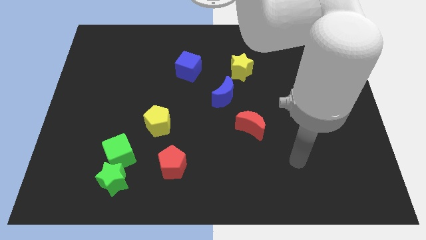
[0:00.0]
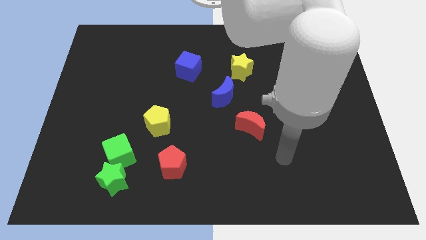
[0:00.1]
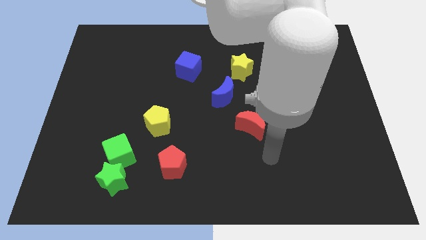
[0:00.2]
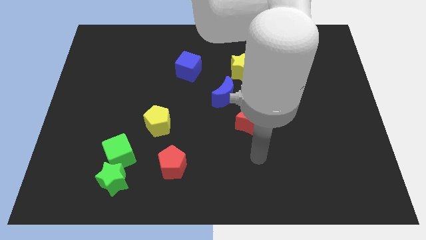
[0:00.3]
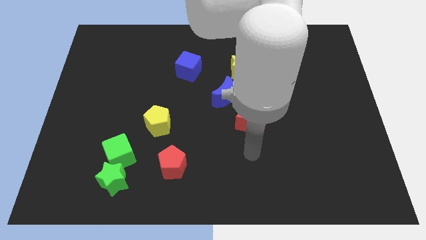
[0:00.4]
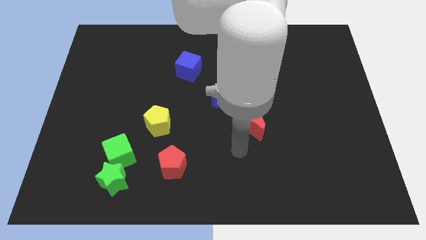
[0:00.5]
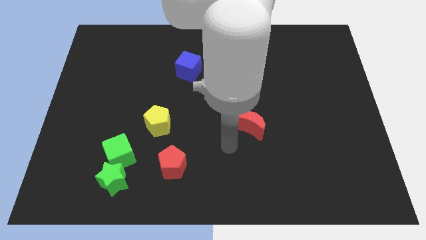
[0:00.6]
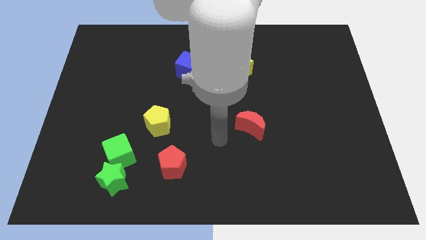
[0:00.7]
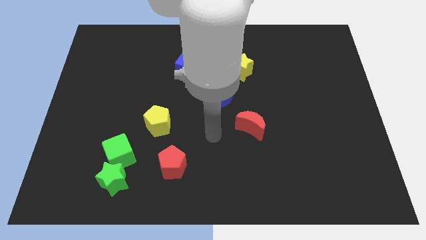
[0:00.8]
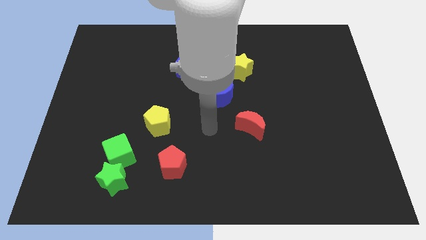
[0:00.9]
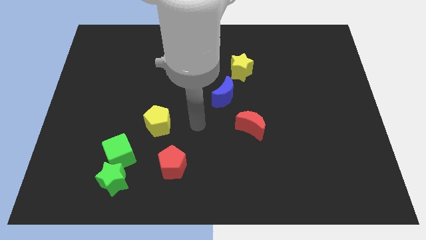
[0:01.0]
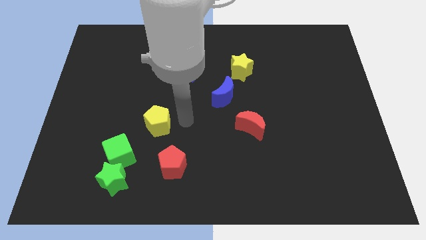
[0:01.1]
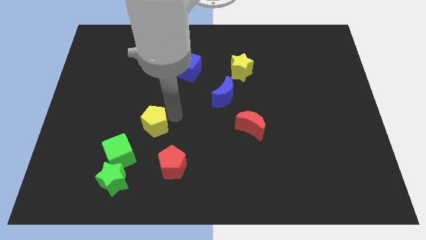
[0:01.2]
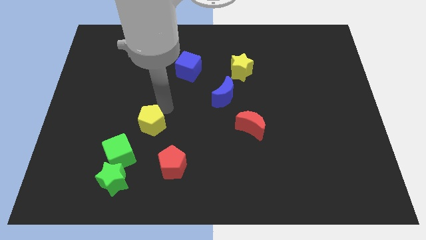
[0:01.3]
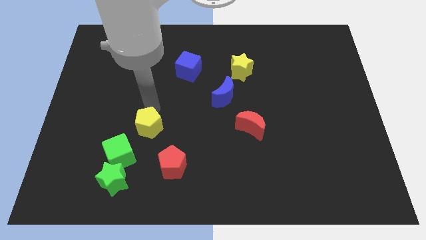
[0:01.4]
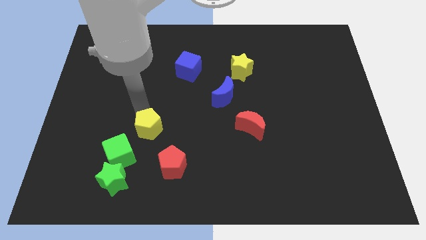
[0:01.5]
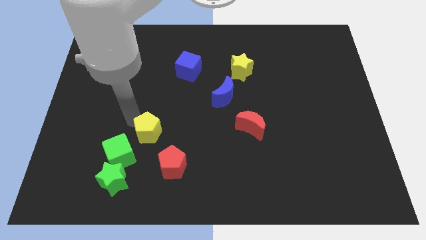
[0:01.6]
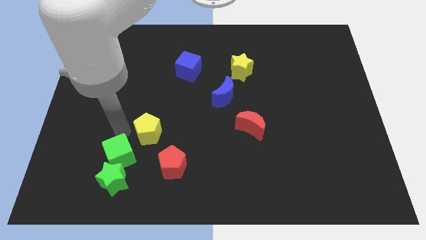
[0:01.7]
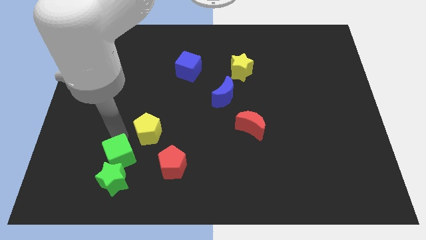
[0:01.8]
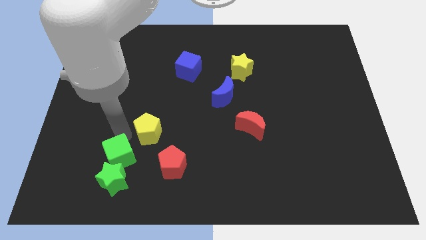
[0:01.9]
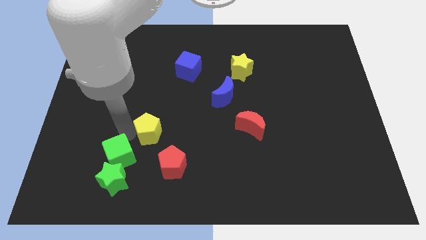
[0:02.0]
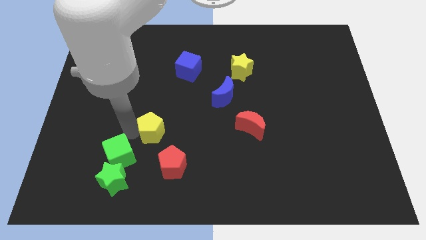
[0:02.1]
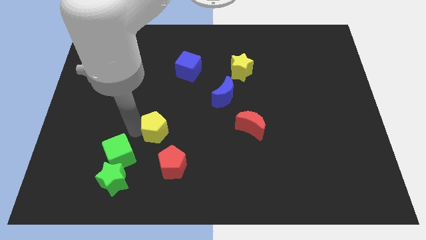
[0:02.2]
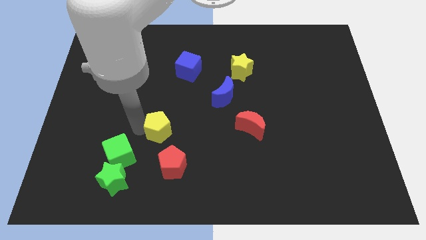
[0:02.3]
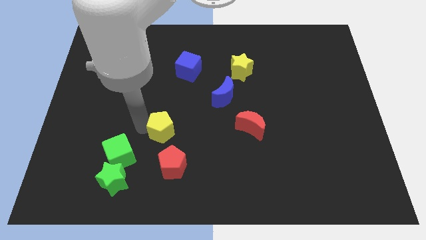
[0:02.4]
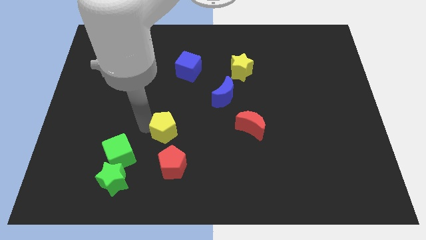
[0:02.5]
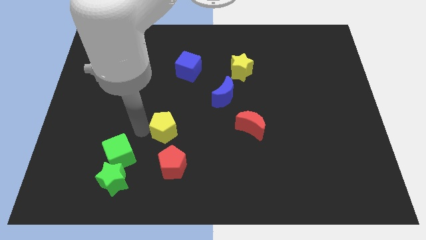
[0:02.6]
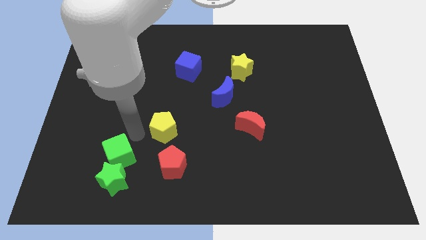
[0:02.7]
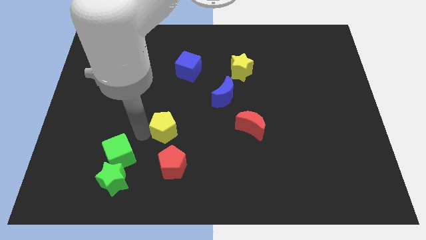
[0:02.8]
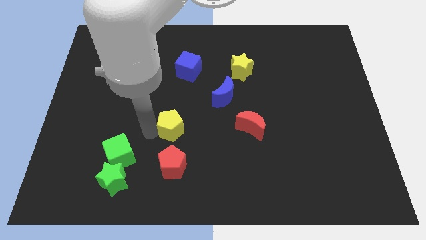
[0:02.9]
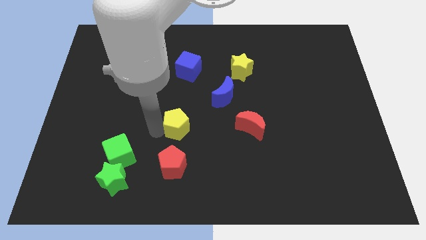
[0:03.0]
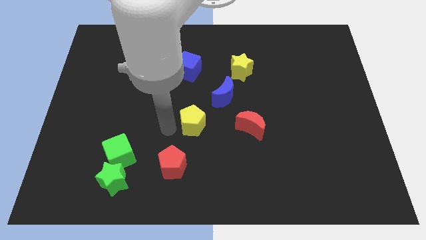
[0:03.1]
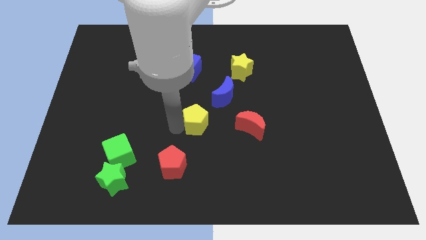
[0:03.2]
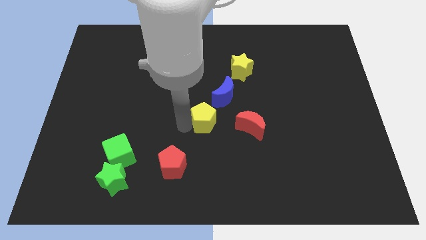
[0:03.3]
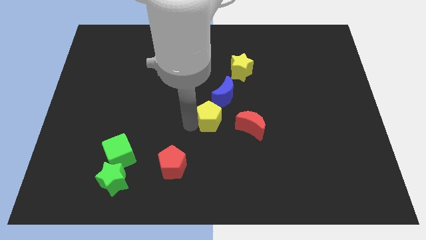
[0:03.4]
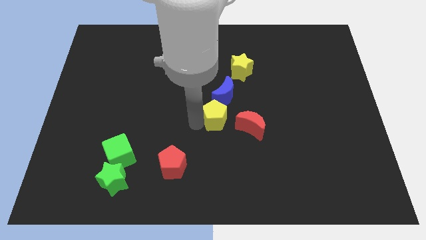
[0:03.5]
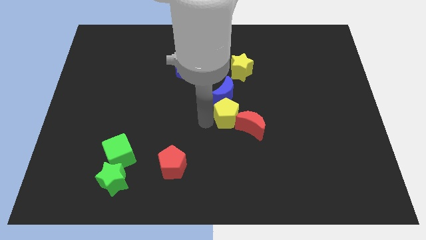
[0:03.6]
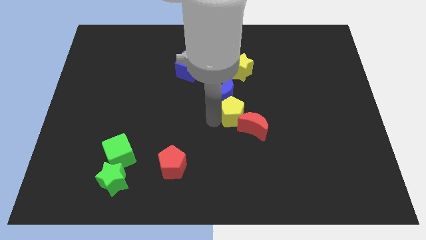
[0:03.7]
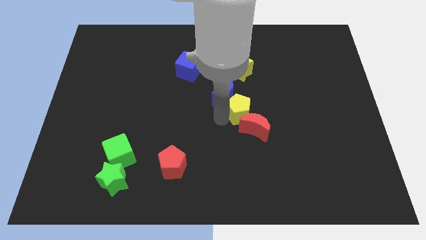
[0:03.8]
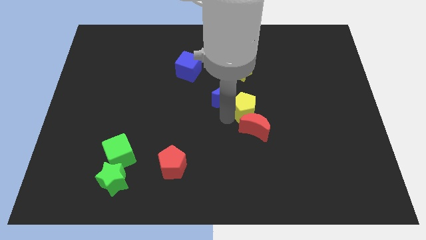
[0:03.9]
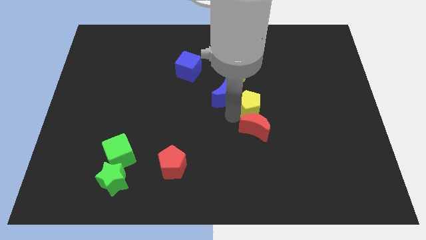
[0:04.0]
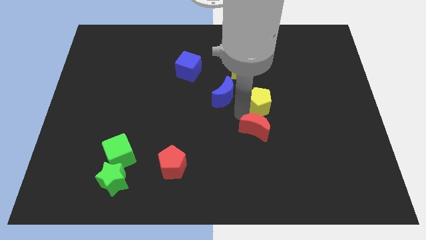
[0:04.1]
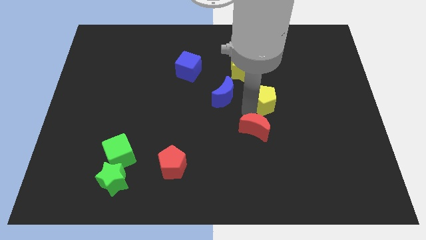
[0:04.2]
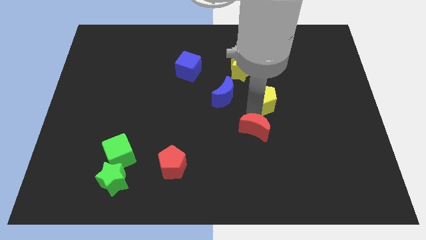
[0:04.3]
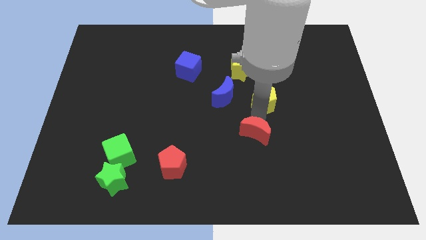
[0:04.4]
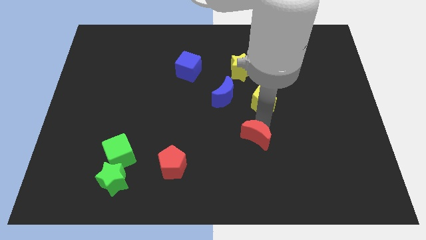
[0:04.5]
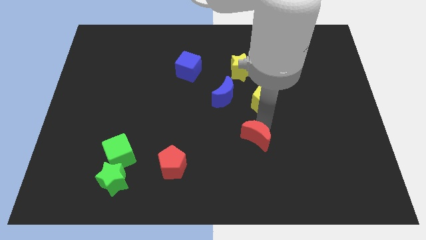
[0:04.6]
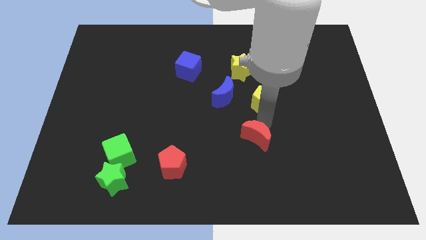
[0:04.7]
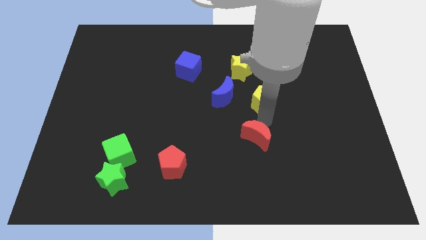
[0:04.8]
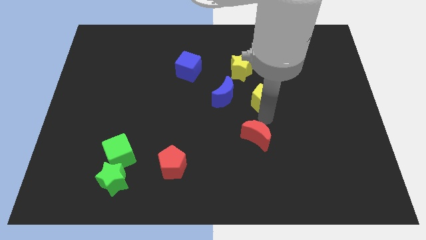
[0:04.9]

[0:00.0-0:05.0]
put the yellow pentagon to the bottom right of the yellow star

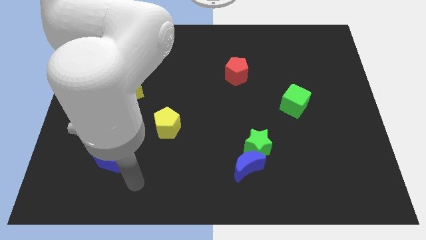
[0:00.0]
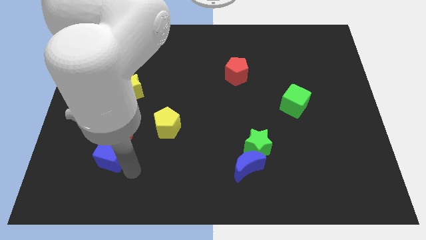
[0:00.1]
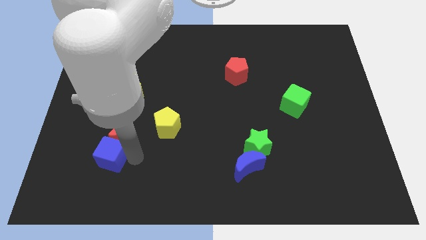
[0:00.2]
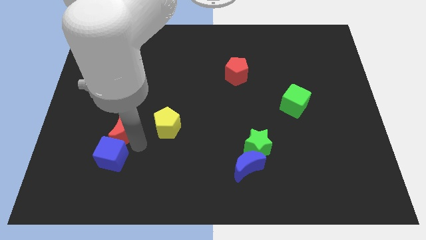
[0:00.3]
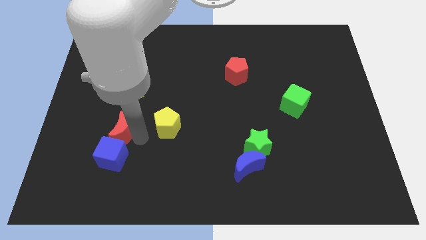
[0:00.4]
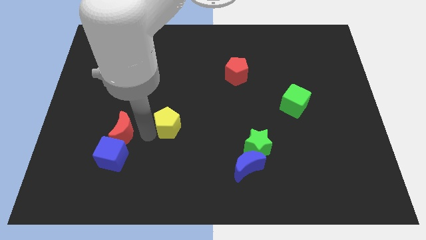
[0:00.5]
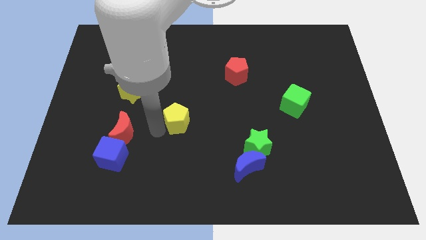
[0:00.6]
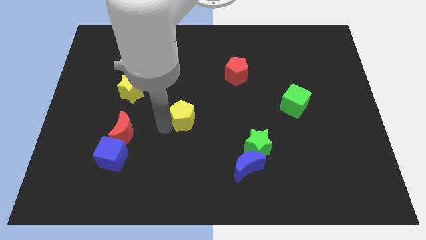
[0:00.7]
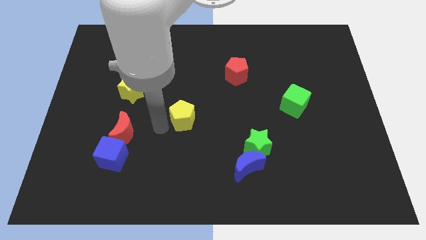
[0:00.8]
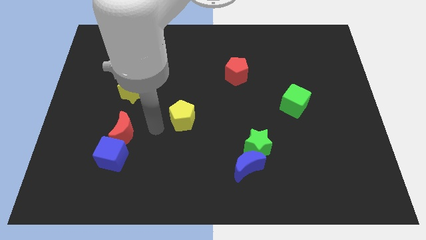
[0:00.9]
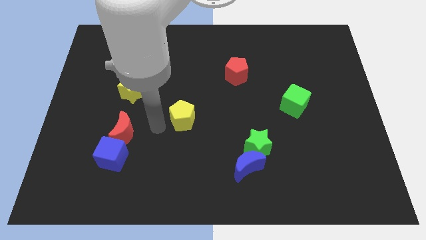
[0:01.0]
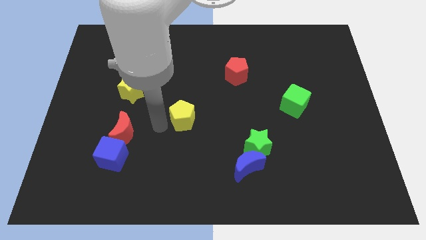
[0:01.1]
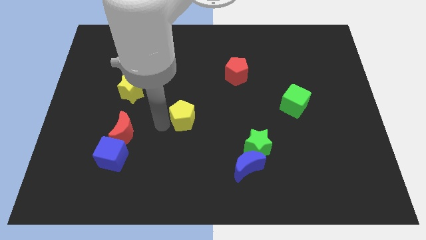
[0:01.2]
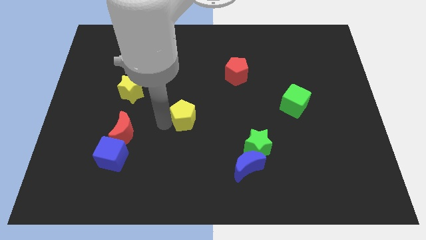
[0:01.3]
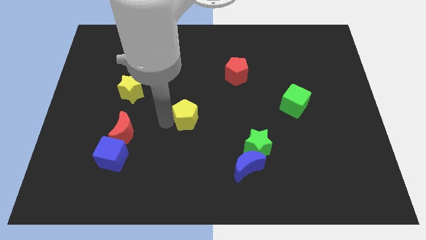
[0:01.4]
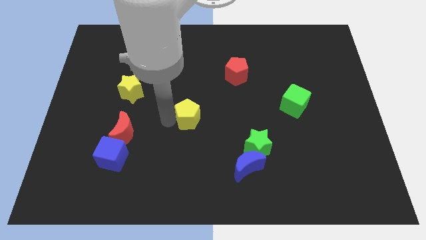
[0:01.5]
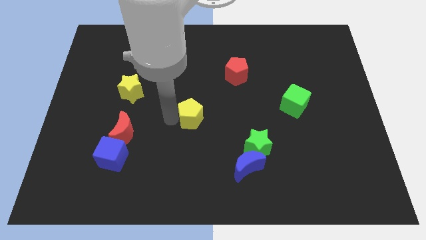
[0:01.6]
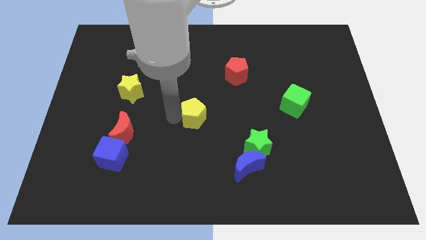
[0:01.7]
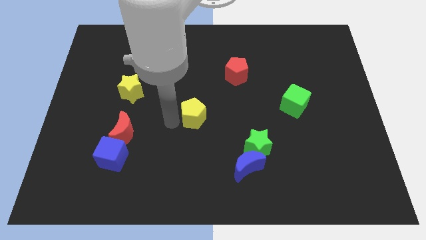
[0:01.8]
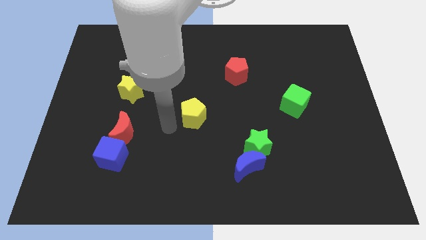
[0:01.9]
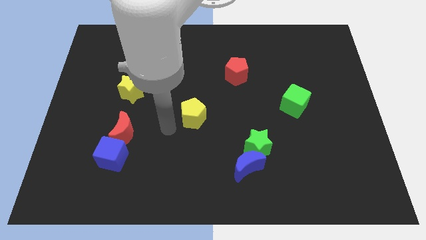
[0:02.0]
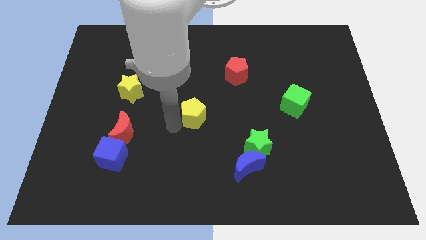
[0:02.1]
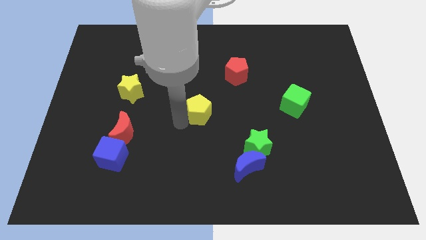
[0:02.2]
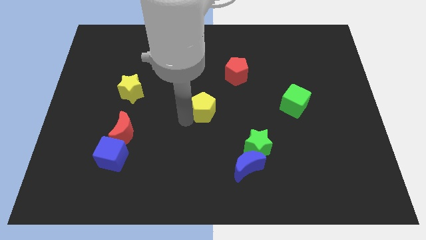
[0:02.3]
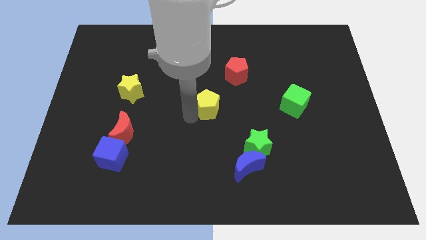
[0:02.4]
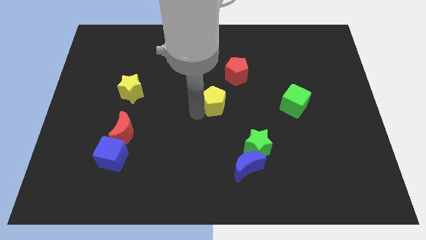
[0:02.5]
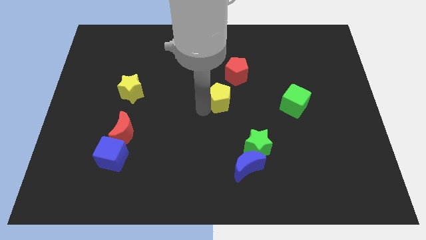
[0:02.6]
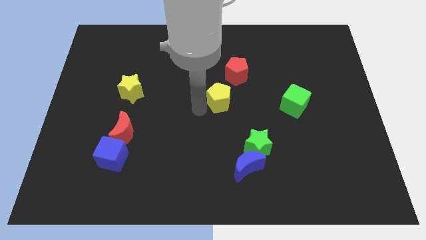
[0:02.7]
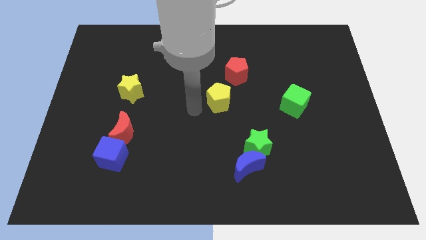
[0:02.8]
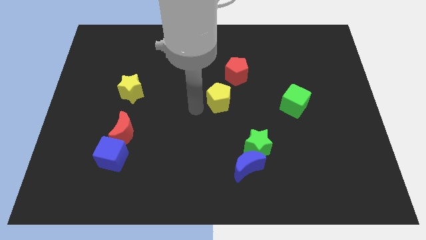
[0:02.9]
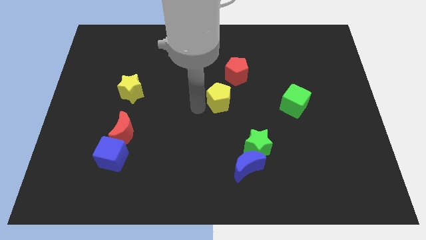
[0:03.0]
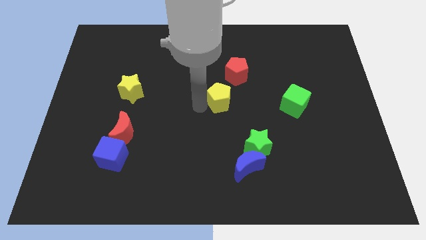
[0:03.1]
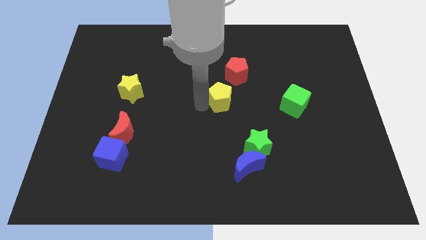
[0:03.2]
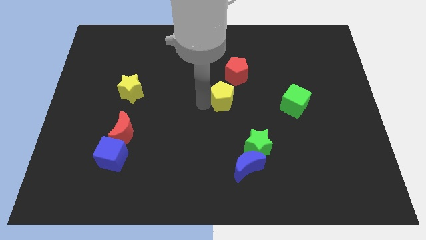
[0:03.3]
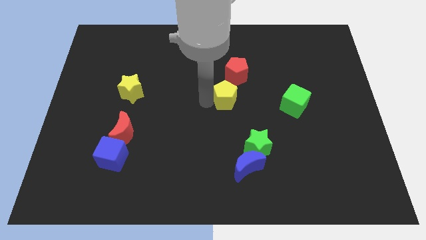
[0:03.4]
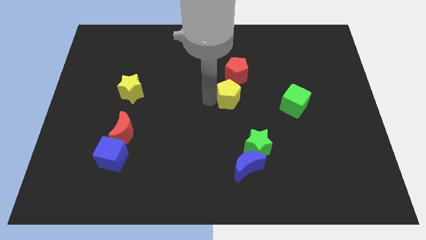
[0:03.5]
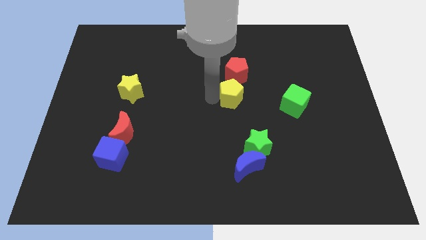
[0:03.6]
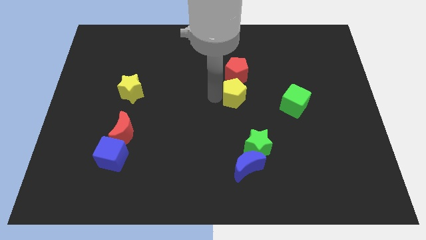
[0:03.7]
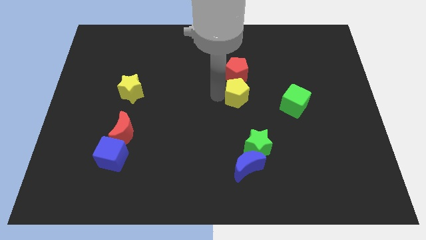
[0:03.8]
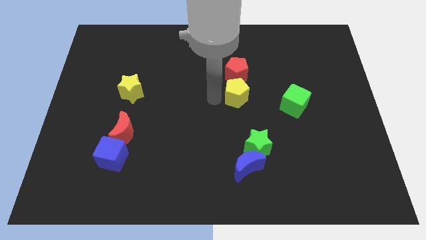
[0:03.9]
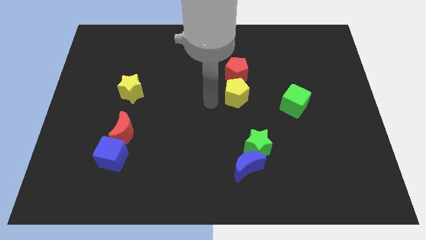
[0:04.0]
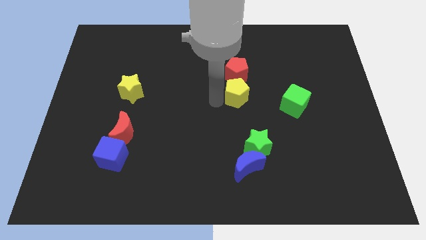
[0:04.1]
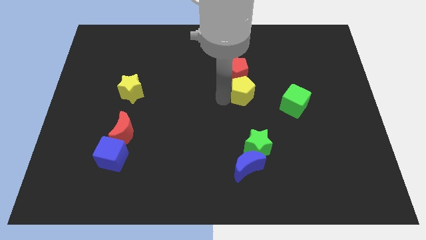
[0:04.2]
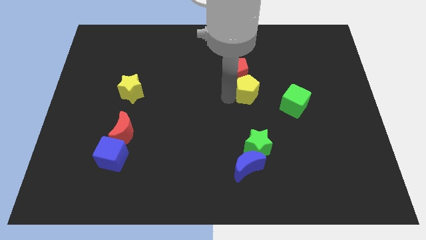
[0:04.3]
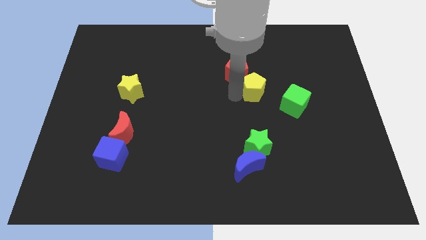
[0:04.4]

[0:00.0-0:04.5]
slide the yellow pentagon diagonally up and to the left of the green cube
